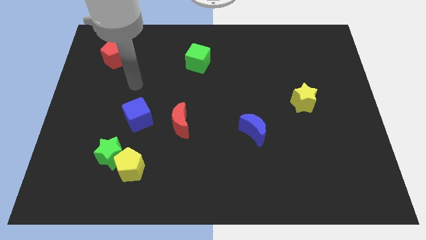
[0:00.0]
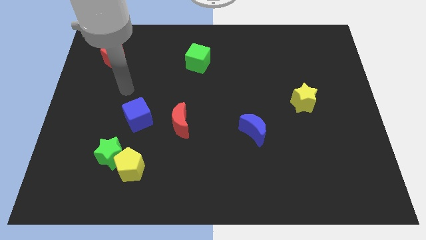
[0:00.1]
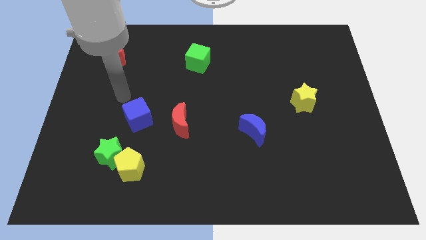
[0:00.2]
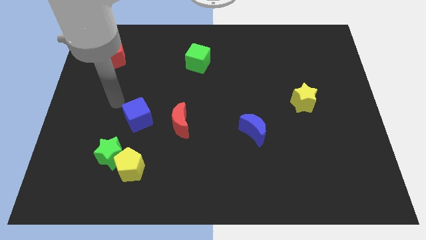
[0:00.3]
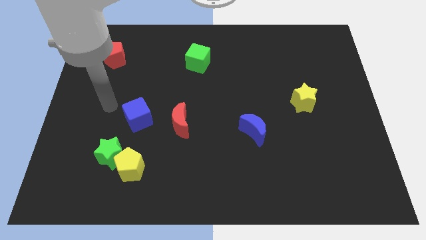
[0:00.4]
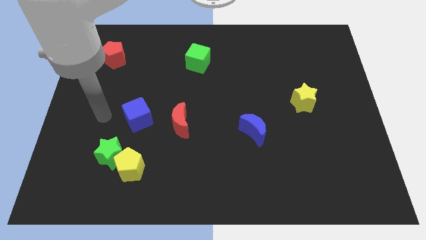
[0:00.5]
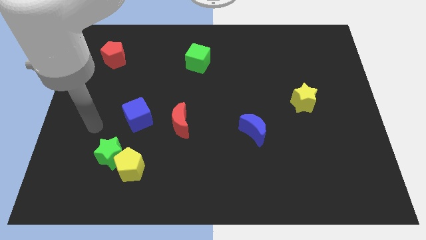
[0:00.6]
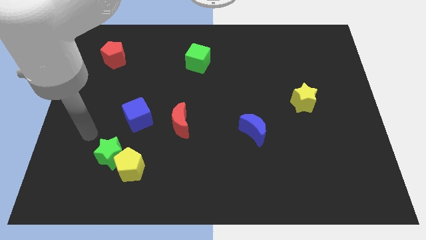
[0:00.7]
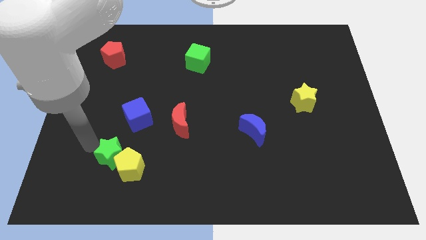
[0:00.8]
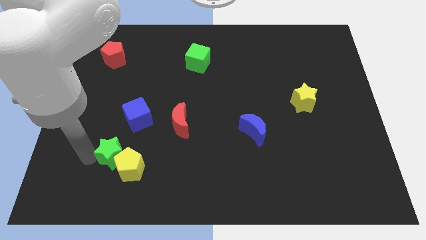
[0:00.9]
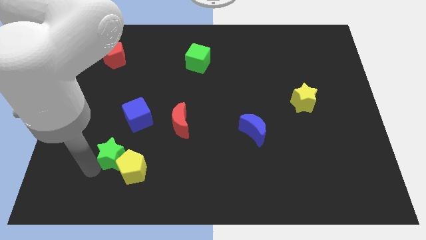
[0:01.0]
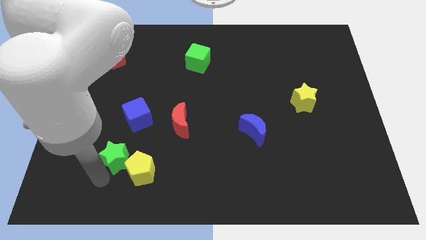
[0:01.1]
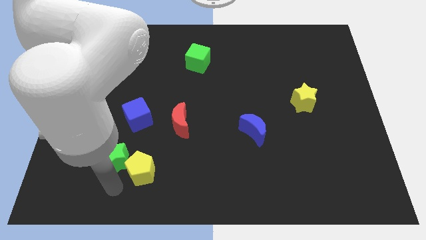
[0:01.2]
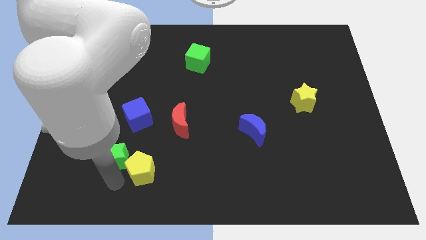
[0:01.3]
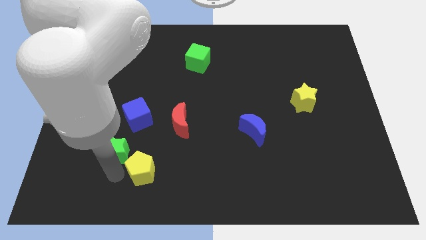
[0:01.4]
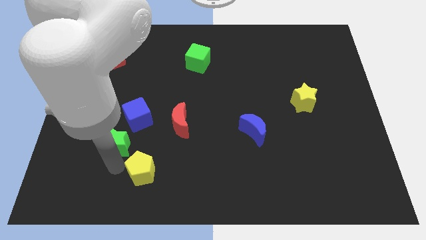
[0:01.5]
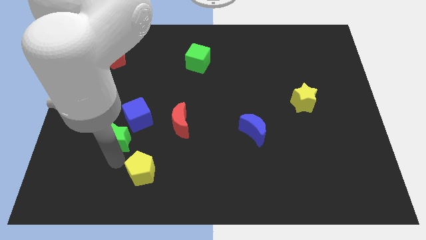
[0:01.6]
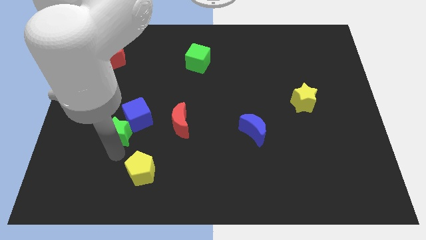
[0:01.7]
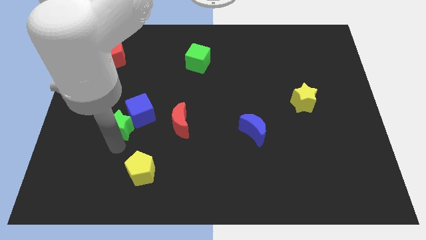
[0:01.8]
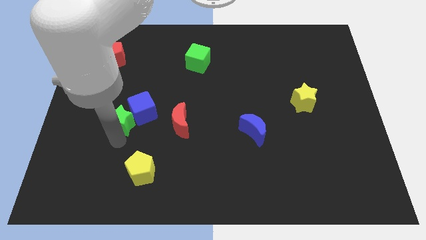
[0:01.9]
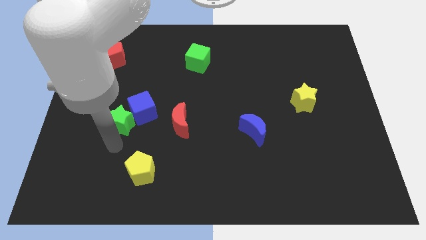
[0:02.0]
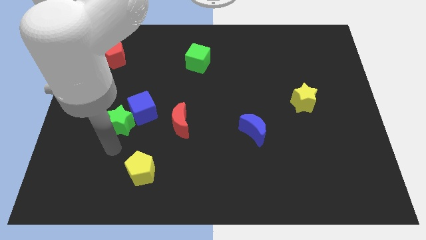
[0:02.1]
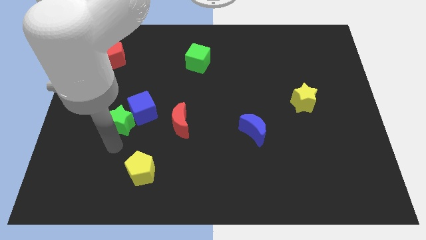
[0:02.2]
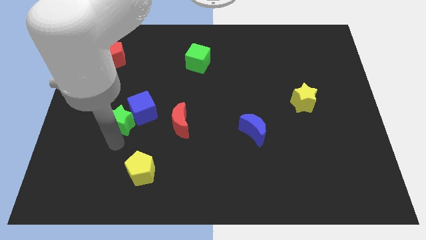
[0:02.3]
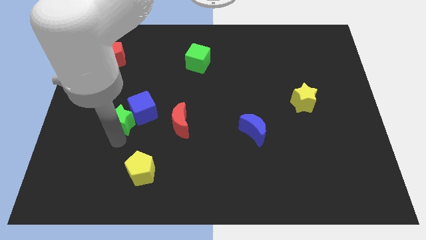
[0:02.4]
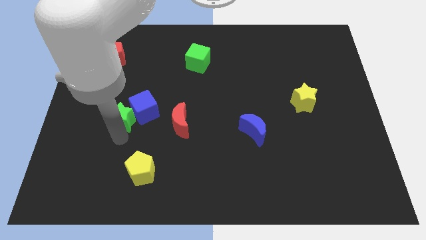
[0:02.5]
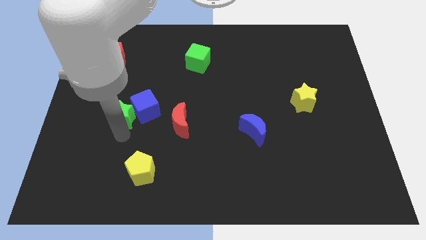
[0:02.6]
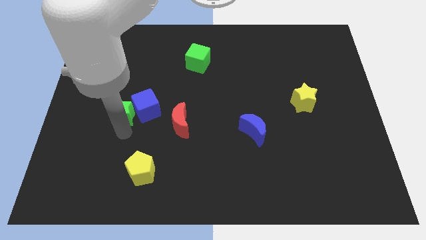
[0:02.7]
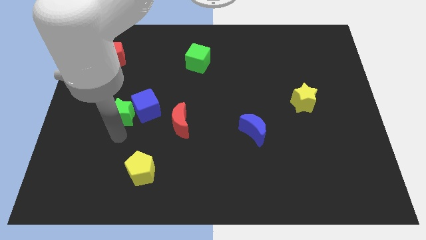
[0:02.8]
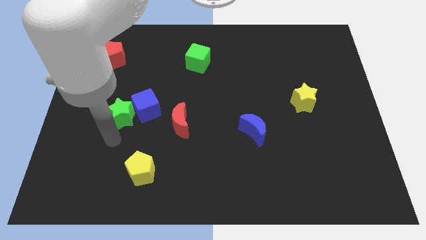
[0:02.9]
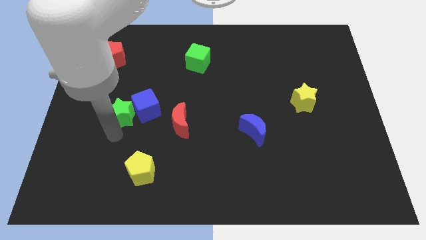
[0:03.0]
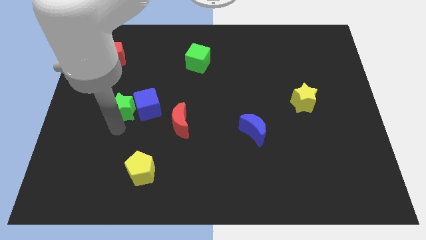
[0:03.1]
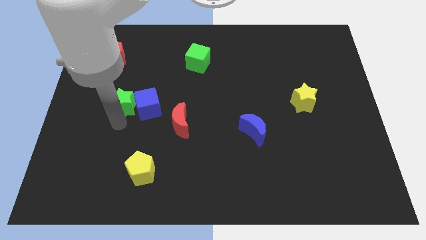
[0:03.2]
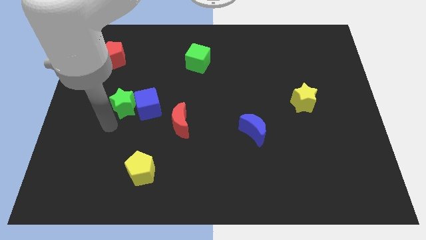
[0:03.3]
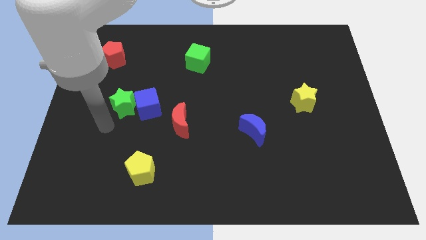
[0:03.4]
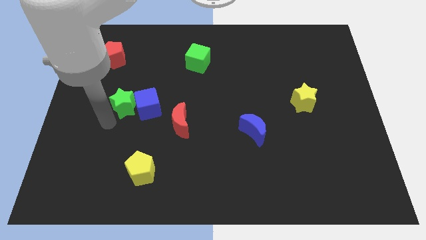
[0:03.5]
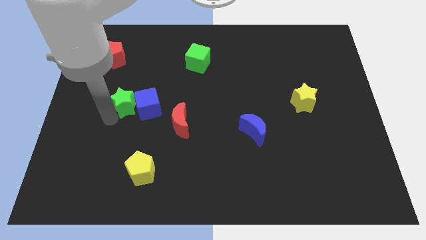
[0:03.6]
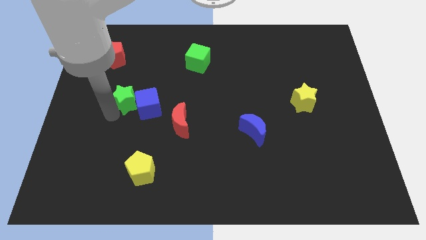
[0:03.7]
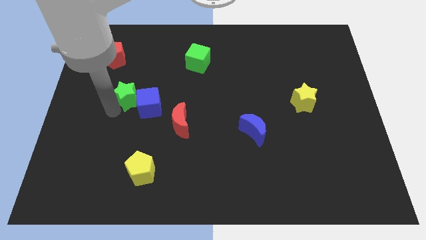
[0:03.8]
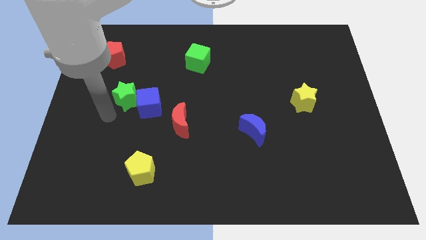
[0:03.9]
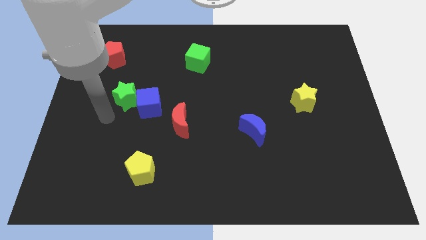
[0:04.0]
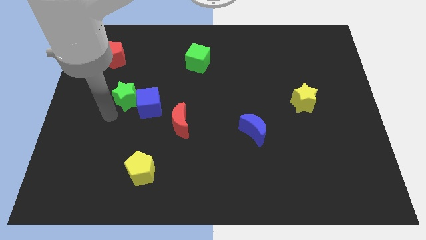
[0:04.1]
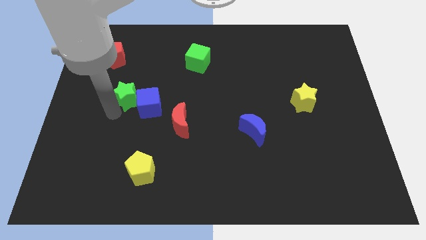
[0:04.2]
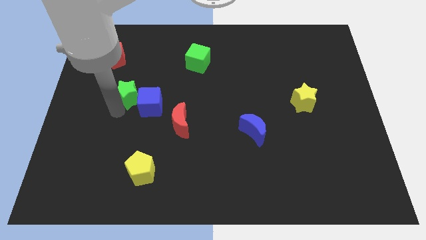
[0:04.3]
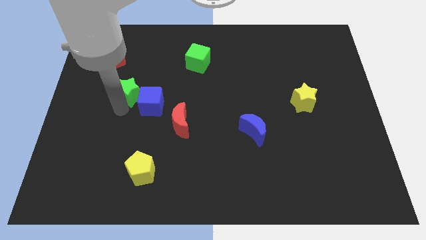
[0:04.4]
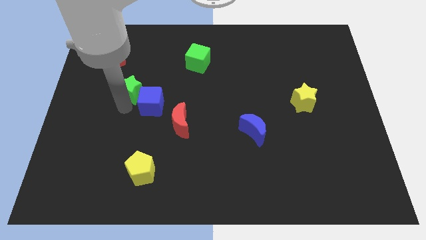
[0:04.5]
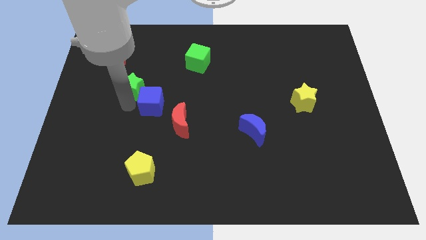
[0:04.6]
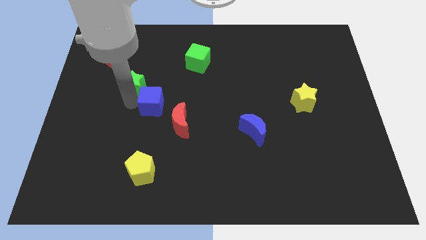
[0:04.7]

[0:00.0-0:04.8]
move the green star above the blue cube

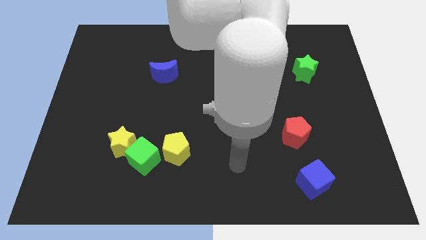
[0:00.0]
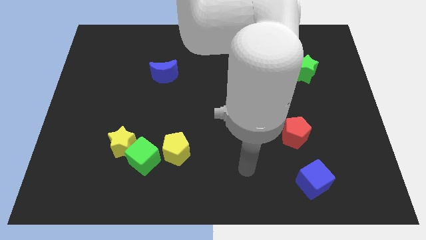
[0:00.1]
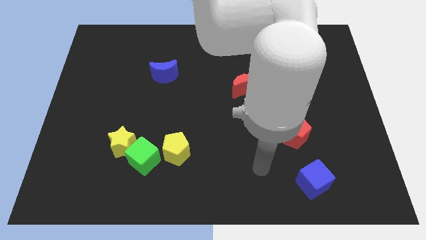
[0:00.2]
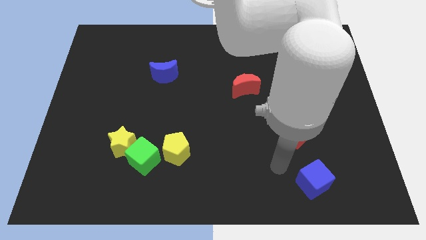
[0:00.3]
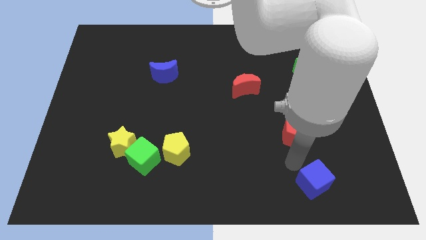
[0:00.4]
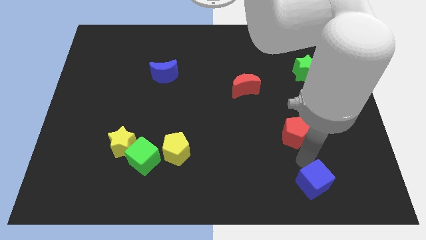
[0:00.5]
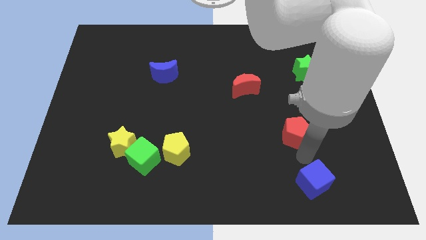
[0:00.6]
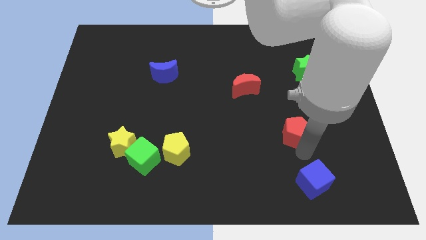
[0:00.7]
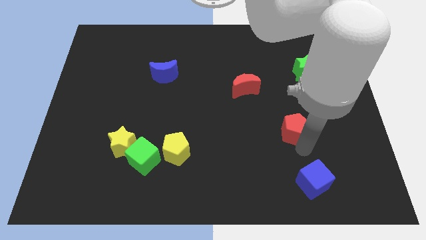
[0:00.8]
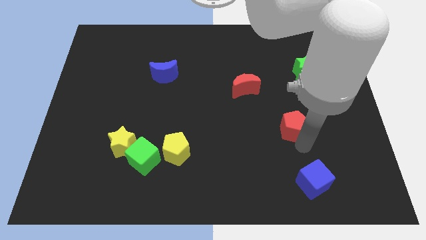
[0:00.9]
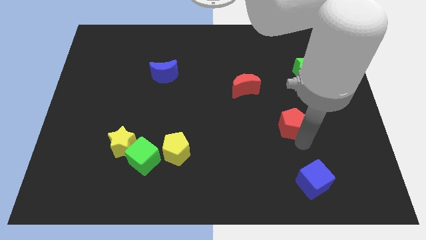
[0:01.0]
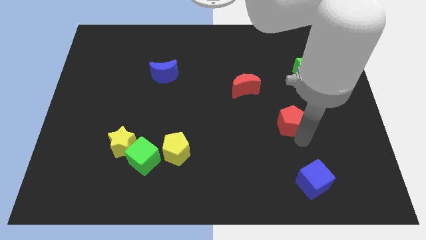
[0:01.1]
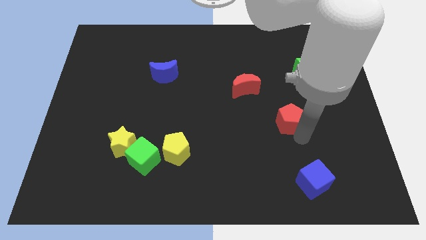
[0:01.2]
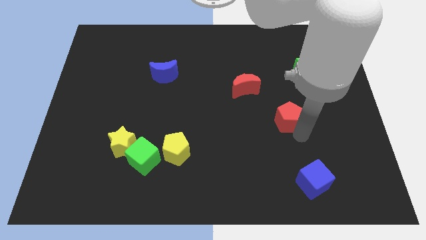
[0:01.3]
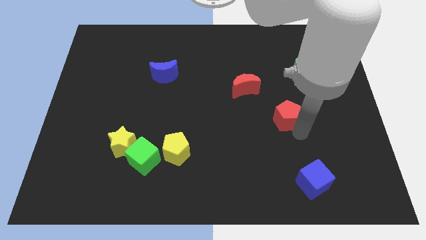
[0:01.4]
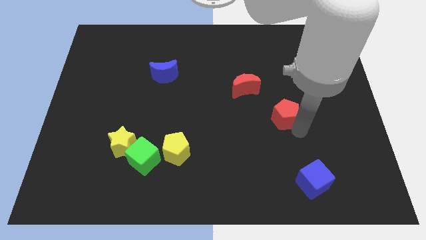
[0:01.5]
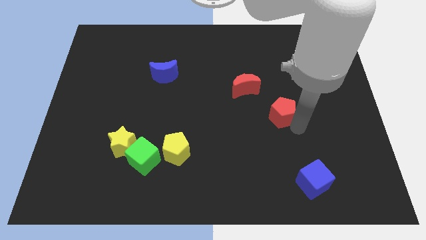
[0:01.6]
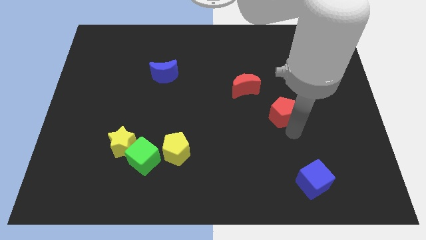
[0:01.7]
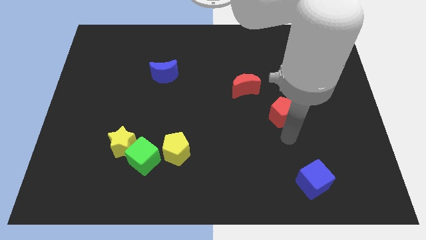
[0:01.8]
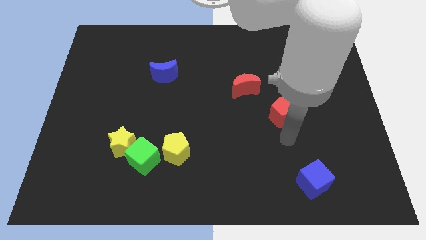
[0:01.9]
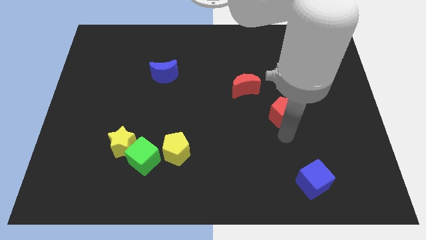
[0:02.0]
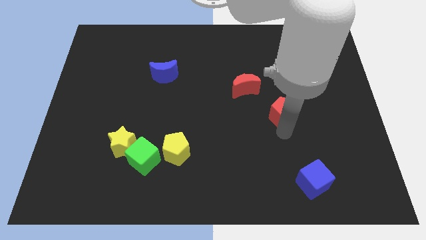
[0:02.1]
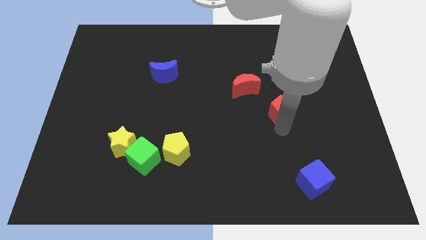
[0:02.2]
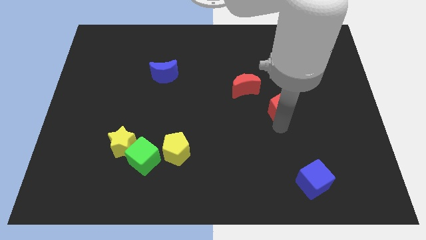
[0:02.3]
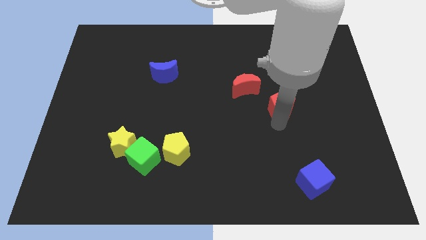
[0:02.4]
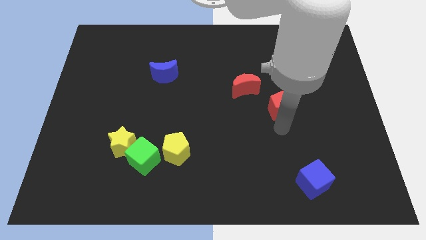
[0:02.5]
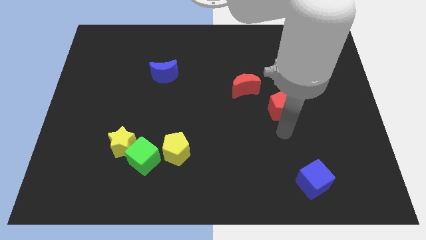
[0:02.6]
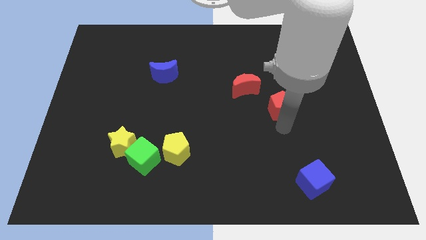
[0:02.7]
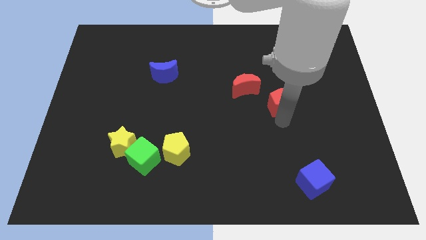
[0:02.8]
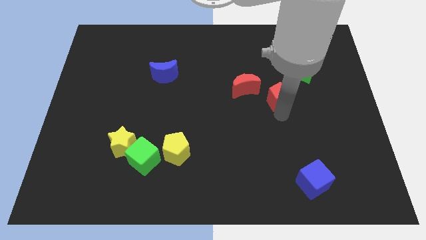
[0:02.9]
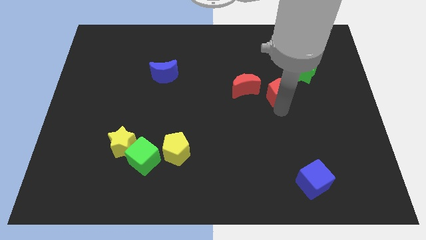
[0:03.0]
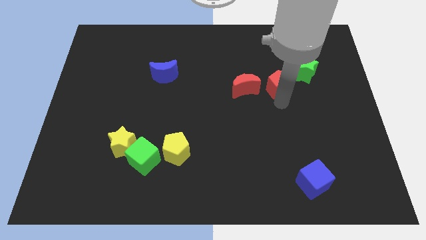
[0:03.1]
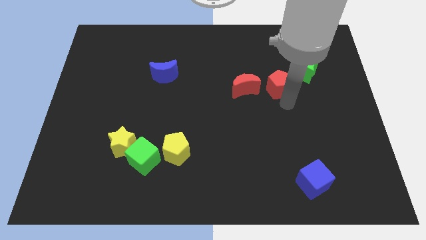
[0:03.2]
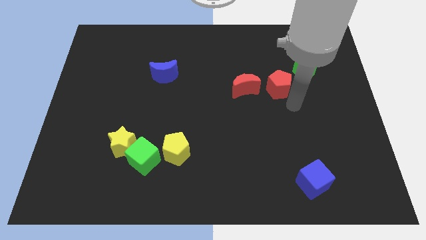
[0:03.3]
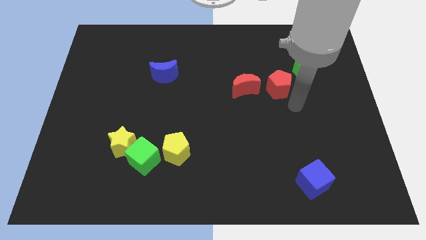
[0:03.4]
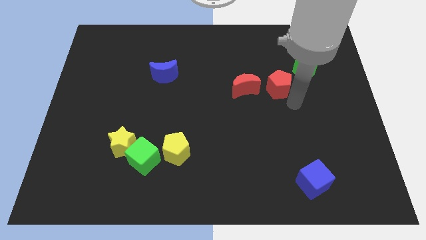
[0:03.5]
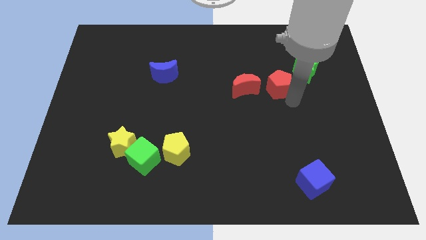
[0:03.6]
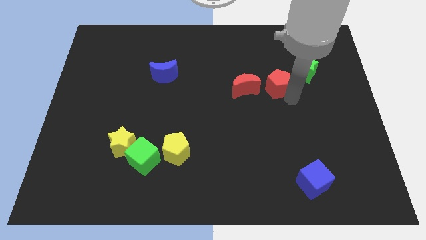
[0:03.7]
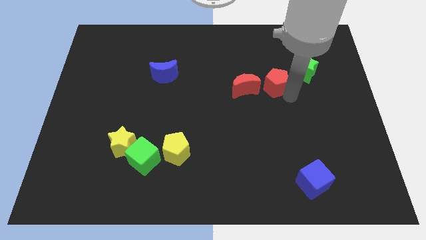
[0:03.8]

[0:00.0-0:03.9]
put the red pentagon to the top right of the red moon
